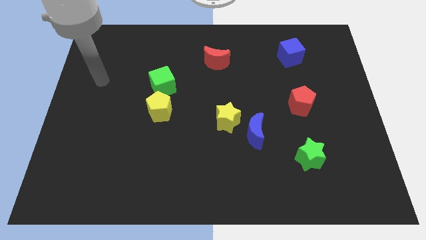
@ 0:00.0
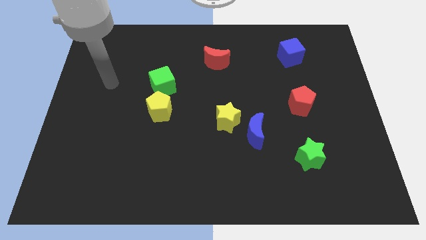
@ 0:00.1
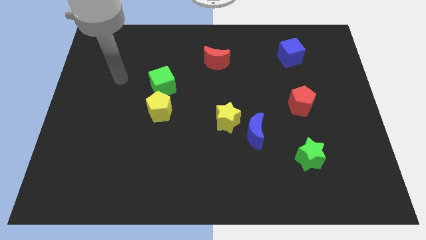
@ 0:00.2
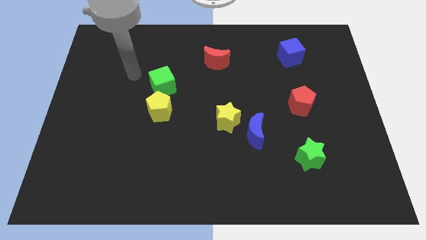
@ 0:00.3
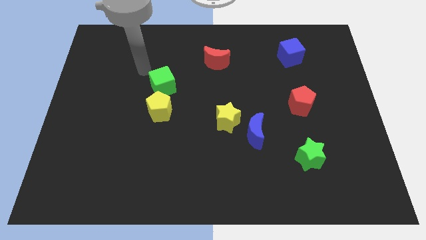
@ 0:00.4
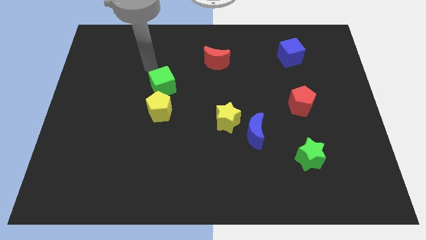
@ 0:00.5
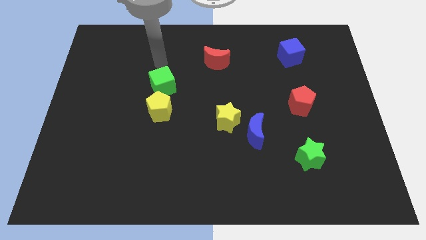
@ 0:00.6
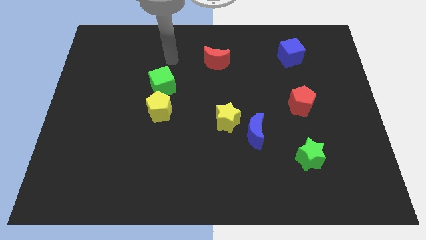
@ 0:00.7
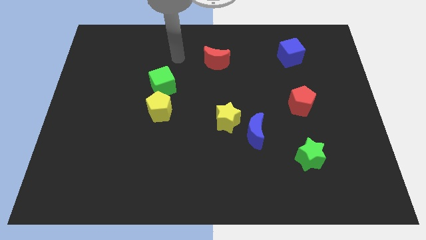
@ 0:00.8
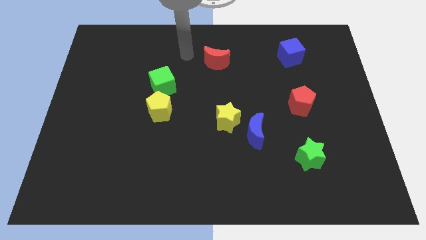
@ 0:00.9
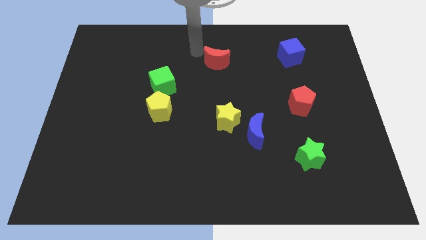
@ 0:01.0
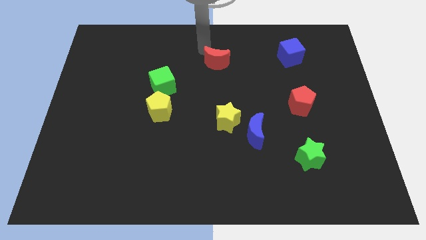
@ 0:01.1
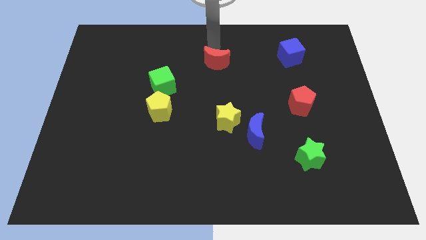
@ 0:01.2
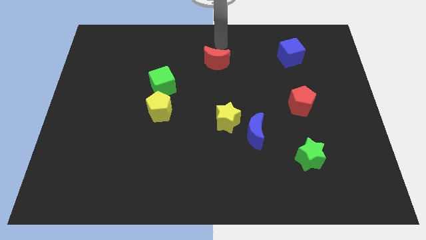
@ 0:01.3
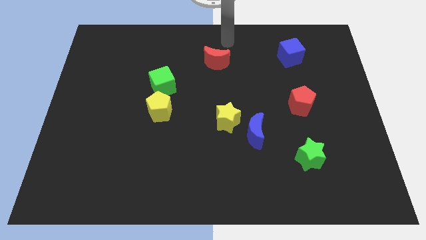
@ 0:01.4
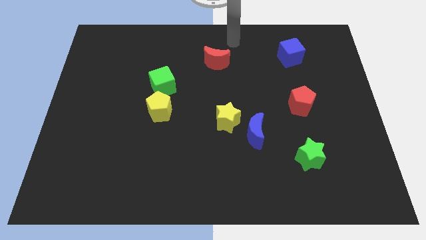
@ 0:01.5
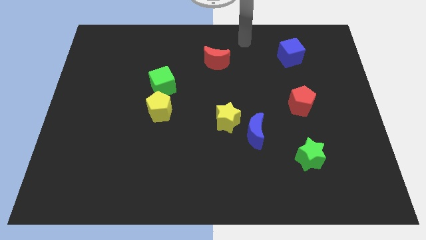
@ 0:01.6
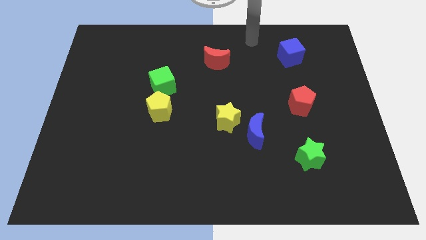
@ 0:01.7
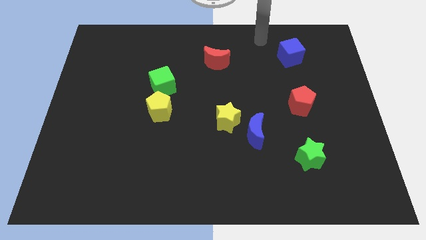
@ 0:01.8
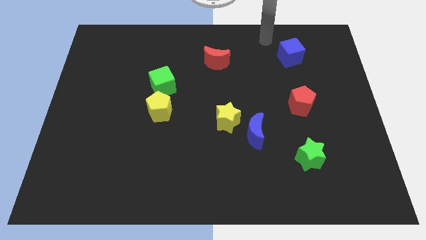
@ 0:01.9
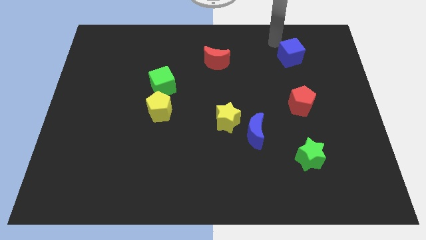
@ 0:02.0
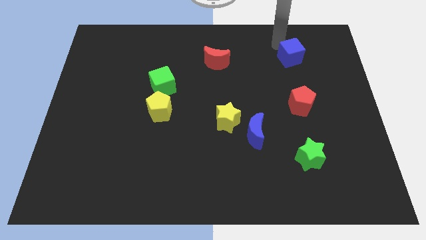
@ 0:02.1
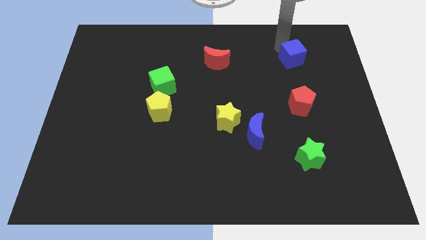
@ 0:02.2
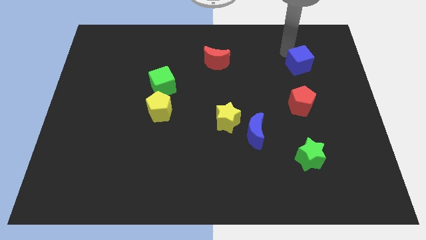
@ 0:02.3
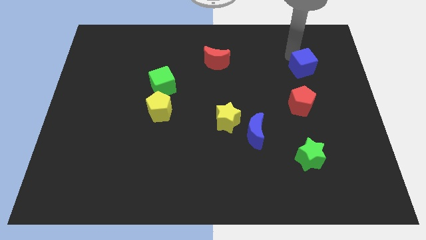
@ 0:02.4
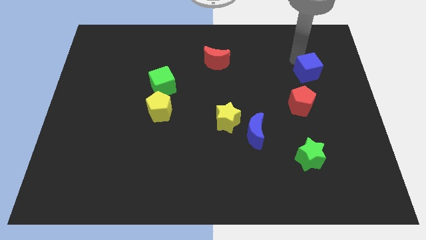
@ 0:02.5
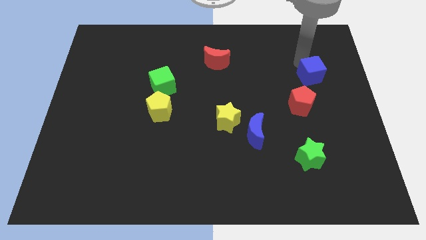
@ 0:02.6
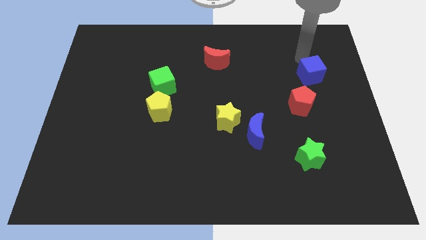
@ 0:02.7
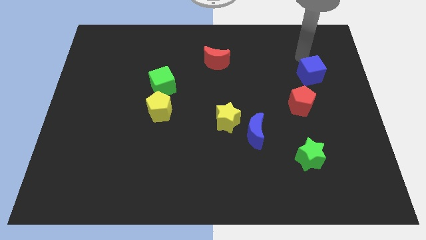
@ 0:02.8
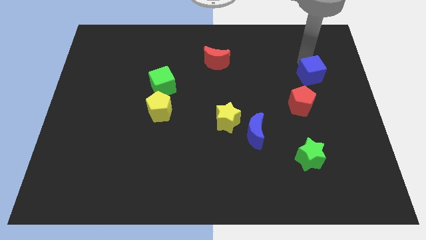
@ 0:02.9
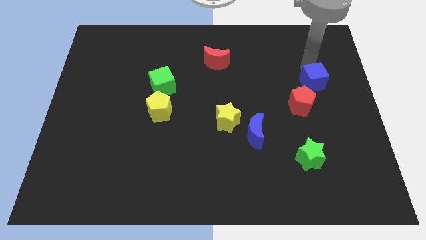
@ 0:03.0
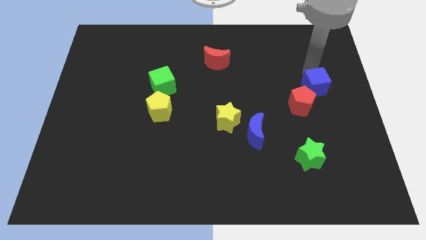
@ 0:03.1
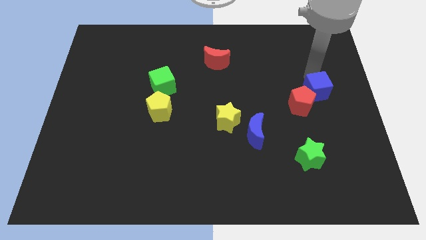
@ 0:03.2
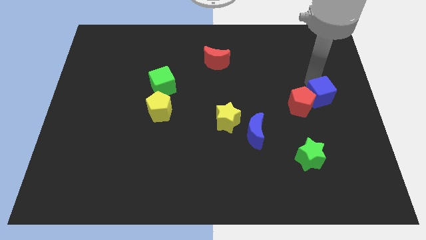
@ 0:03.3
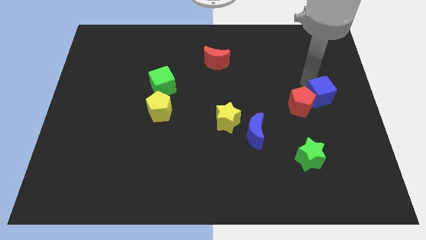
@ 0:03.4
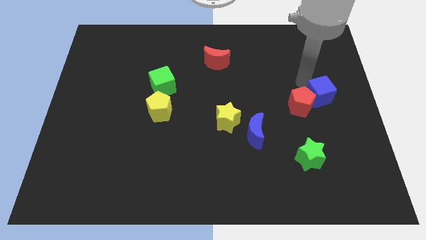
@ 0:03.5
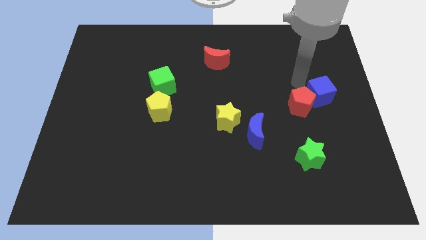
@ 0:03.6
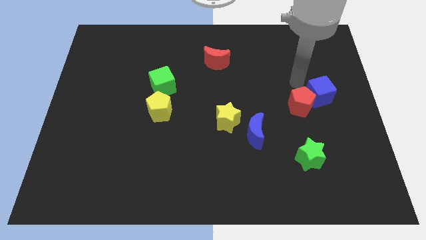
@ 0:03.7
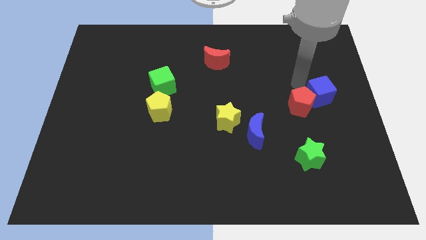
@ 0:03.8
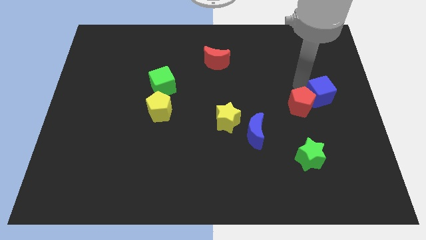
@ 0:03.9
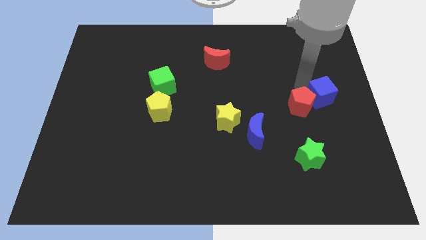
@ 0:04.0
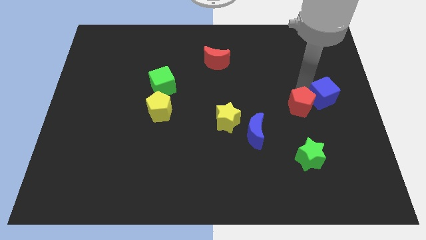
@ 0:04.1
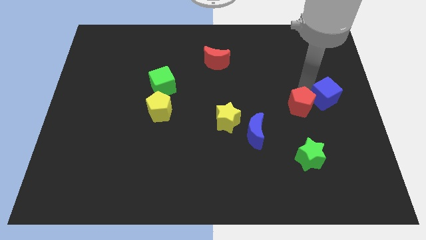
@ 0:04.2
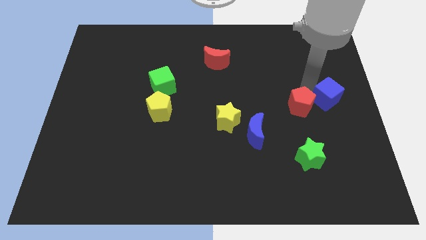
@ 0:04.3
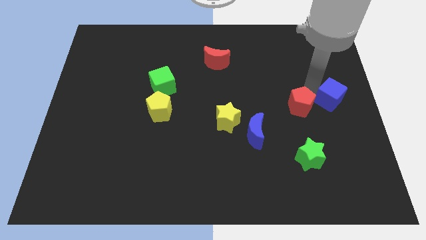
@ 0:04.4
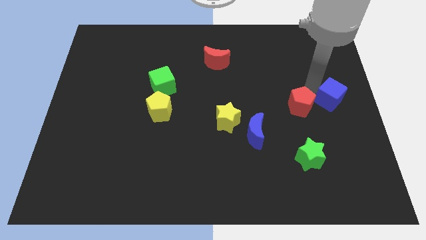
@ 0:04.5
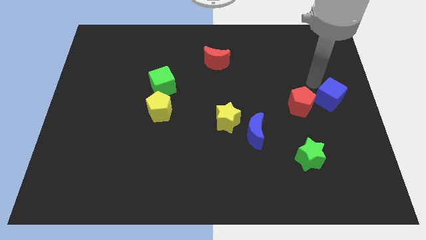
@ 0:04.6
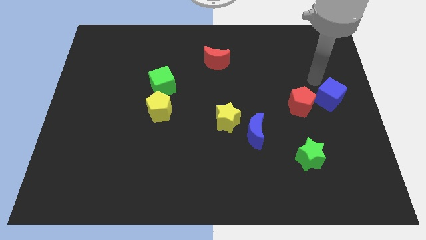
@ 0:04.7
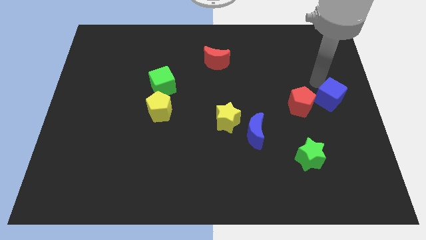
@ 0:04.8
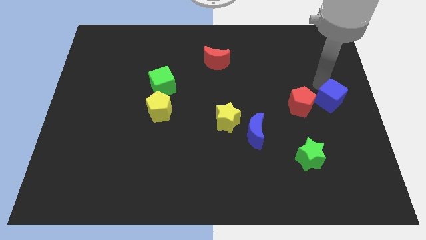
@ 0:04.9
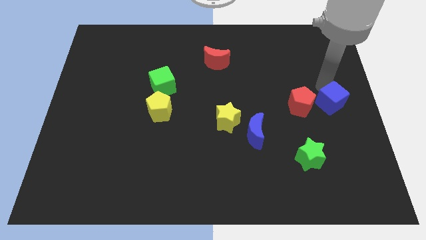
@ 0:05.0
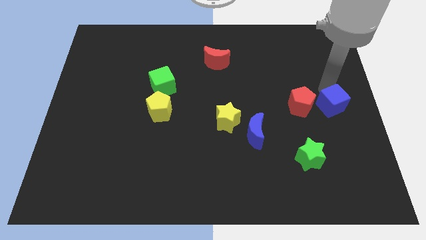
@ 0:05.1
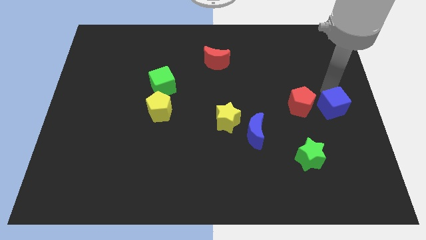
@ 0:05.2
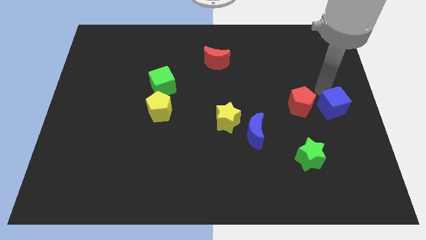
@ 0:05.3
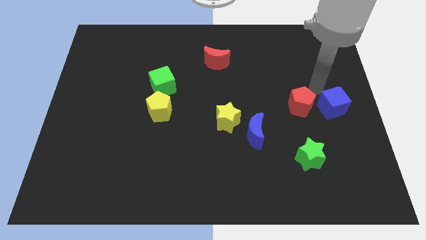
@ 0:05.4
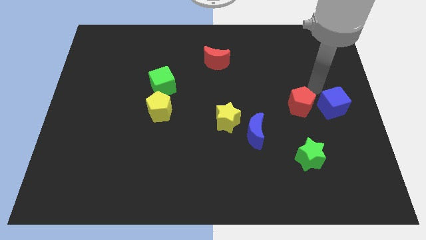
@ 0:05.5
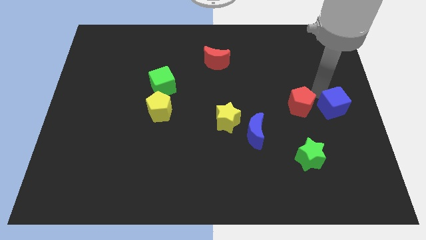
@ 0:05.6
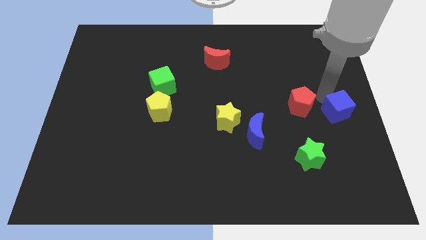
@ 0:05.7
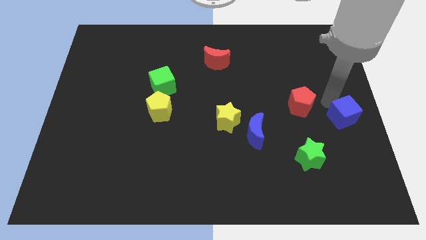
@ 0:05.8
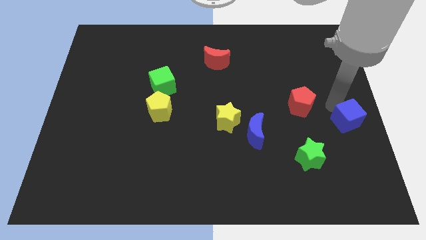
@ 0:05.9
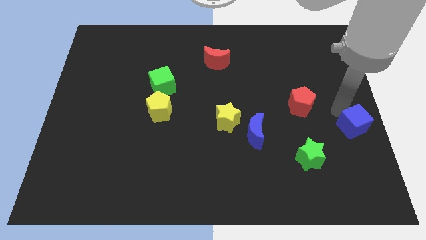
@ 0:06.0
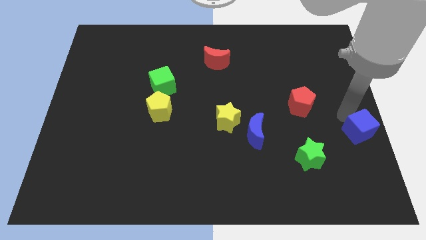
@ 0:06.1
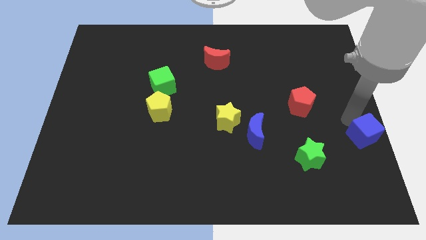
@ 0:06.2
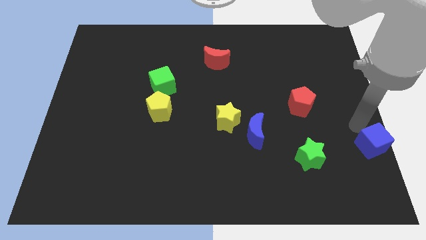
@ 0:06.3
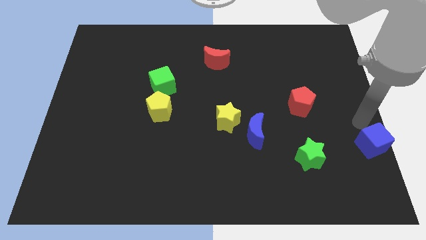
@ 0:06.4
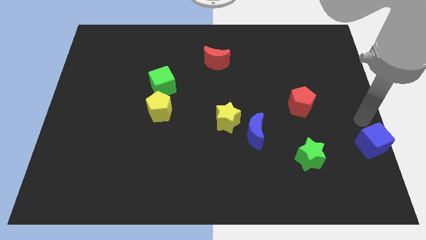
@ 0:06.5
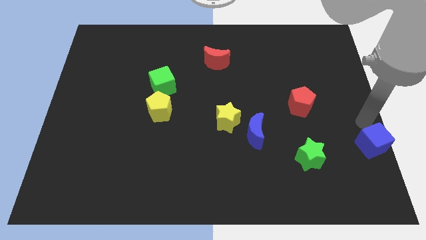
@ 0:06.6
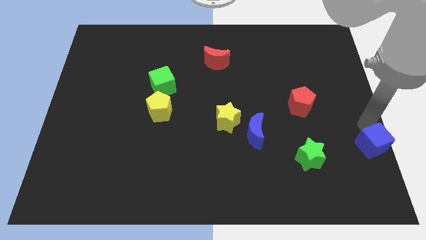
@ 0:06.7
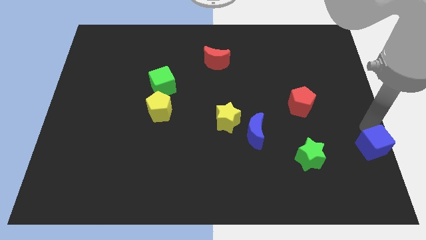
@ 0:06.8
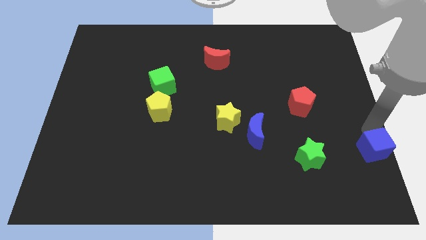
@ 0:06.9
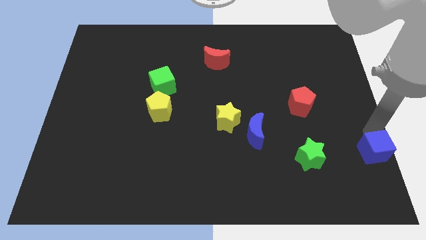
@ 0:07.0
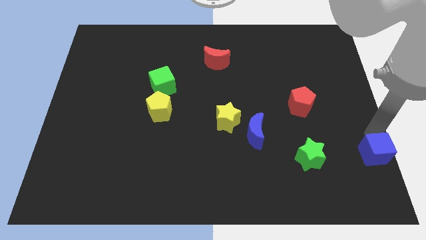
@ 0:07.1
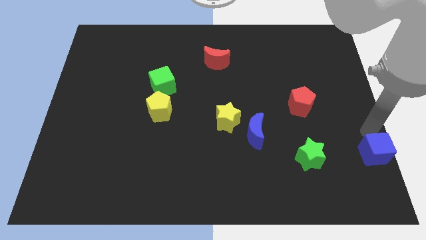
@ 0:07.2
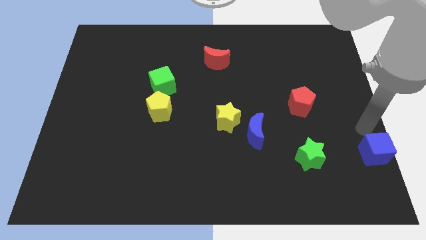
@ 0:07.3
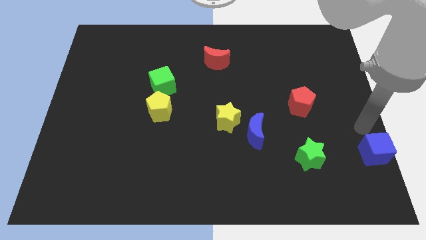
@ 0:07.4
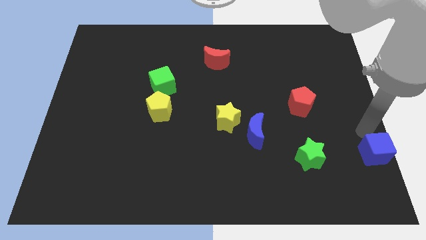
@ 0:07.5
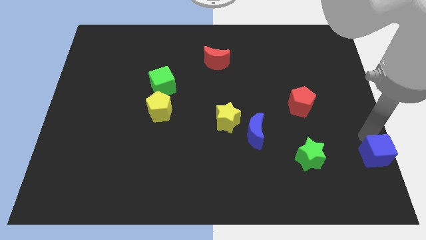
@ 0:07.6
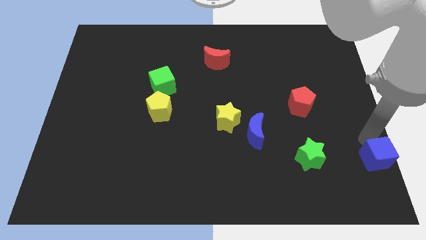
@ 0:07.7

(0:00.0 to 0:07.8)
put the blue cube to the bottom right of the board
